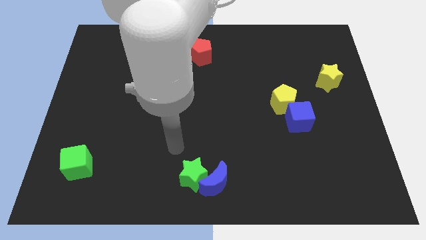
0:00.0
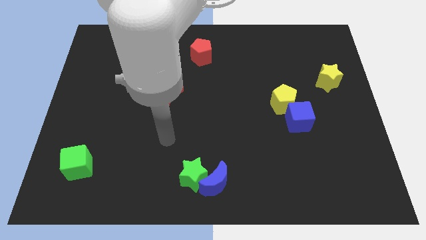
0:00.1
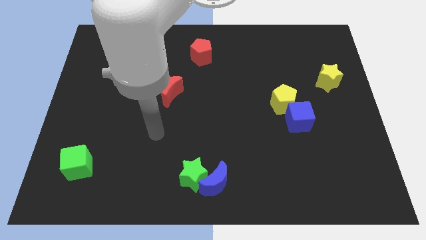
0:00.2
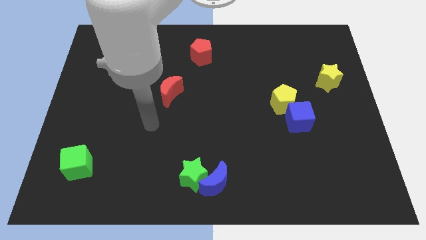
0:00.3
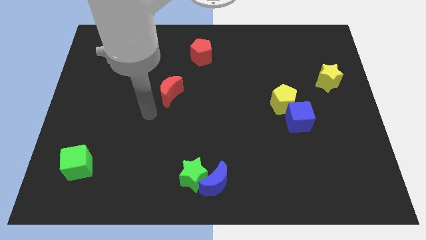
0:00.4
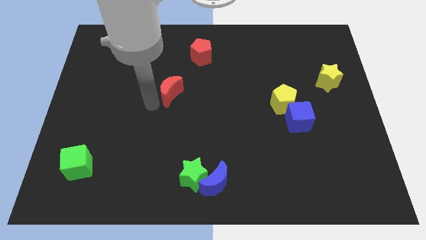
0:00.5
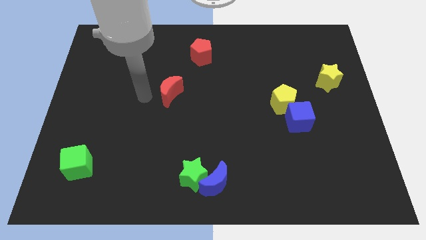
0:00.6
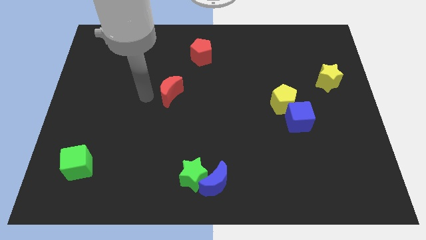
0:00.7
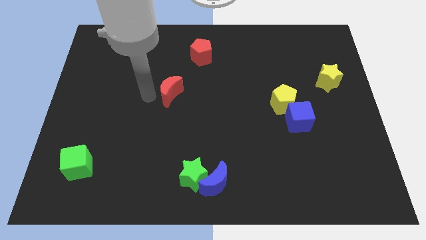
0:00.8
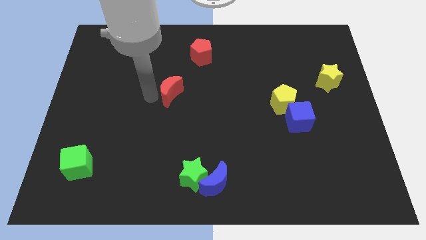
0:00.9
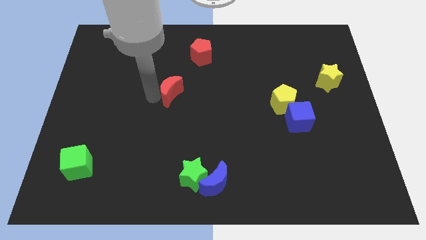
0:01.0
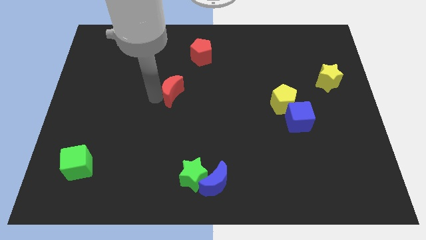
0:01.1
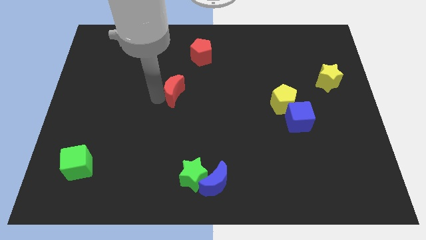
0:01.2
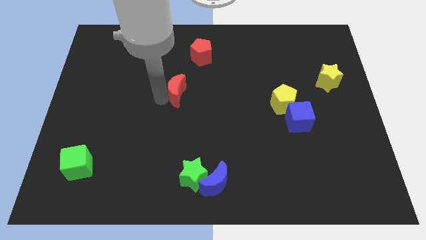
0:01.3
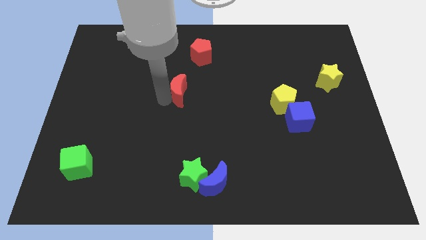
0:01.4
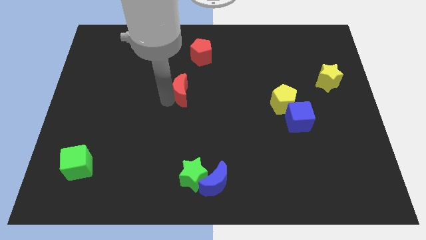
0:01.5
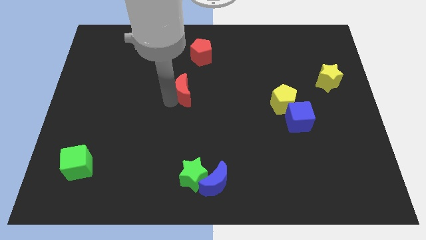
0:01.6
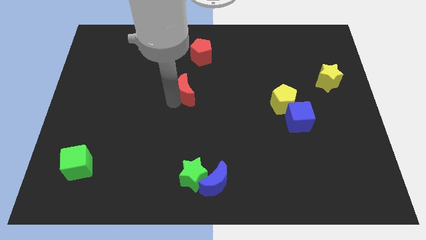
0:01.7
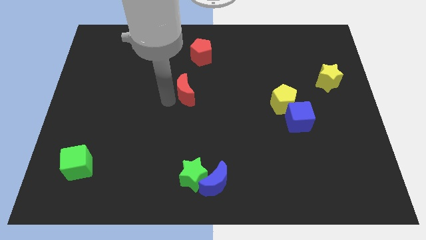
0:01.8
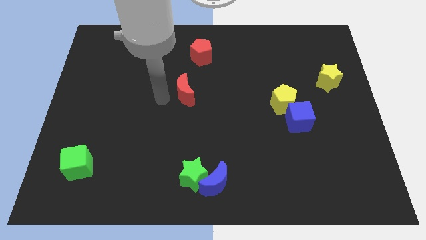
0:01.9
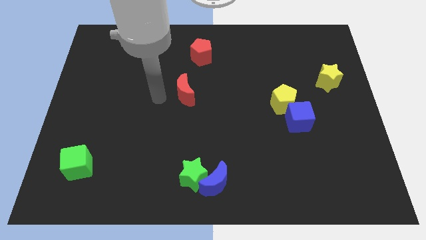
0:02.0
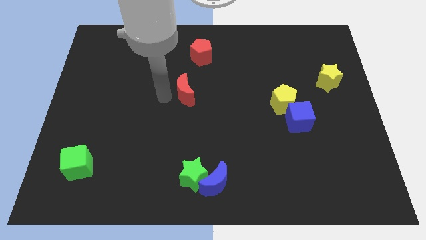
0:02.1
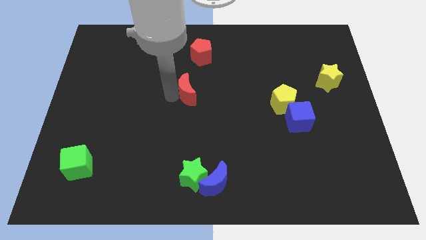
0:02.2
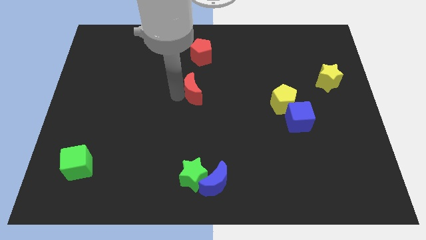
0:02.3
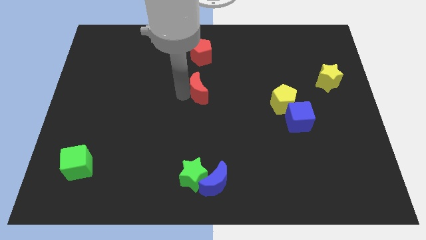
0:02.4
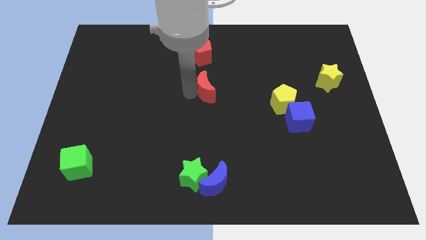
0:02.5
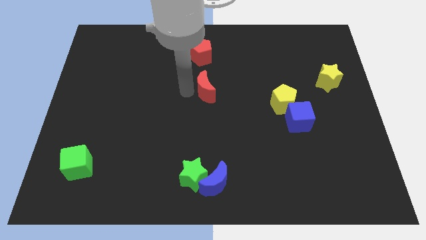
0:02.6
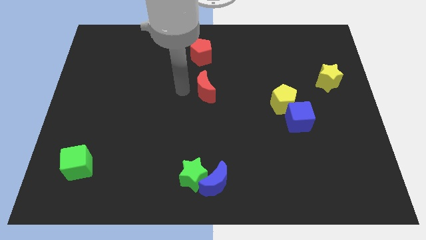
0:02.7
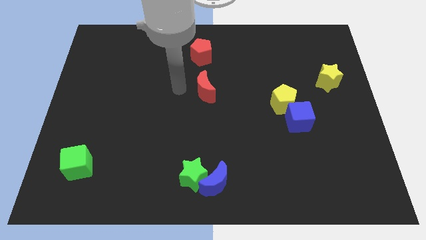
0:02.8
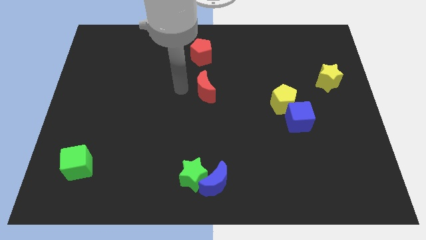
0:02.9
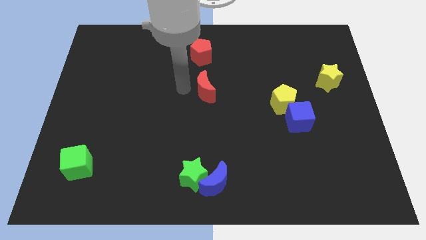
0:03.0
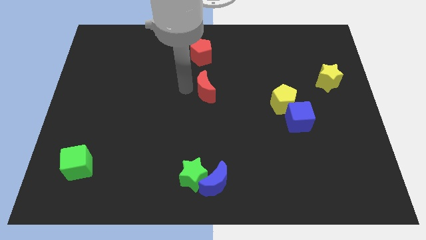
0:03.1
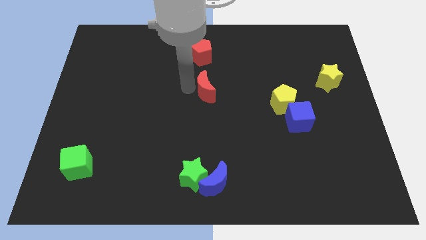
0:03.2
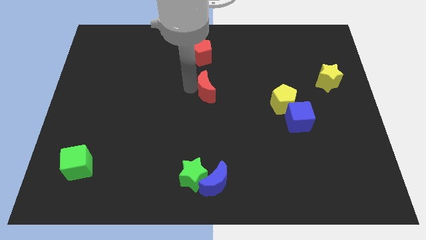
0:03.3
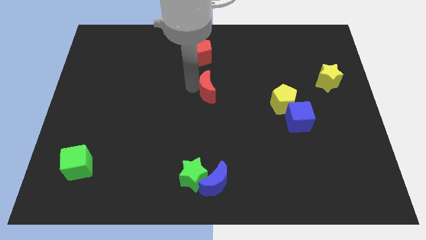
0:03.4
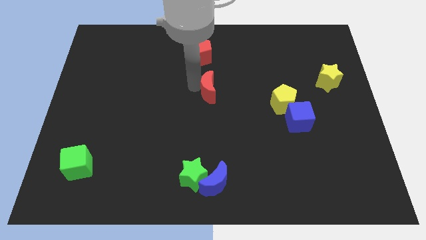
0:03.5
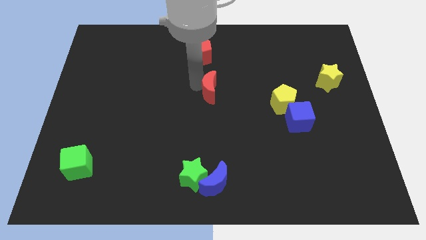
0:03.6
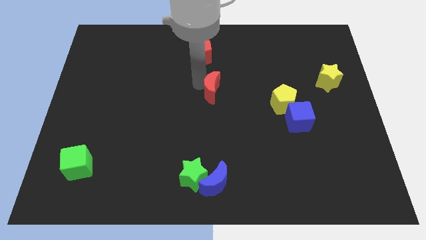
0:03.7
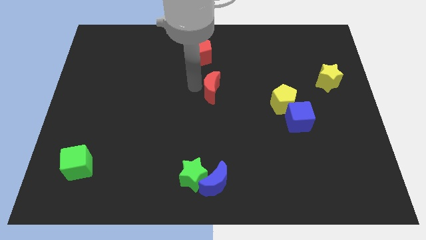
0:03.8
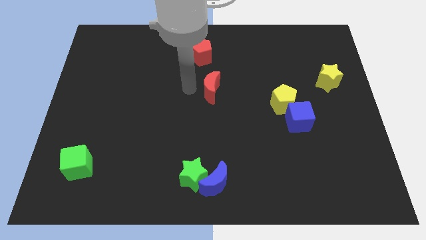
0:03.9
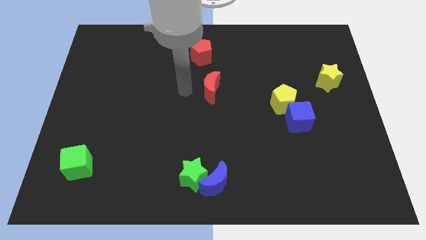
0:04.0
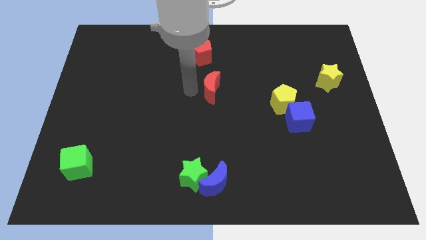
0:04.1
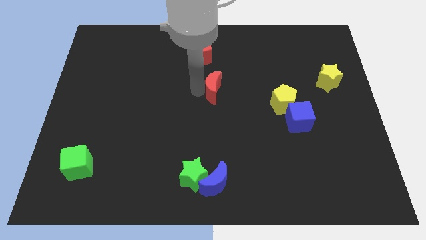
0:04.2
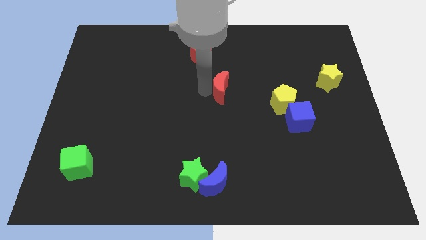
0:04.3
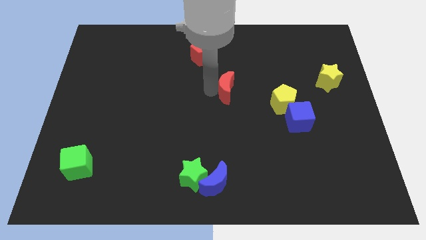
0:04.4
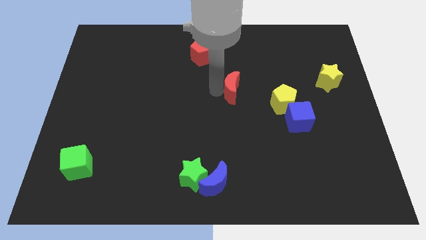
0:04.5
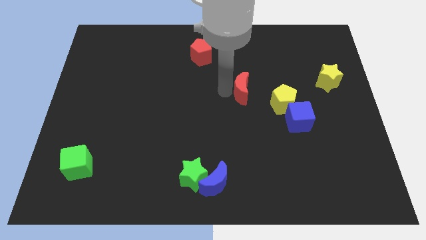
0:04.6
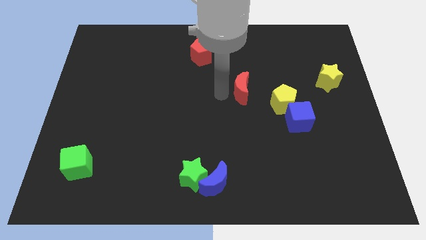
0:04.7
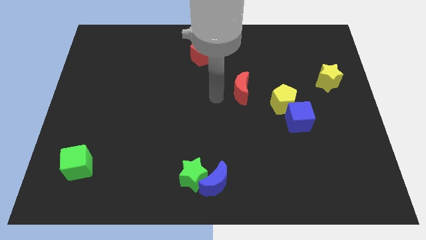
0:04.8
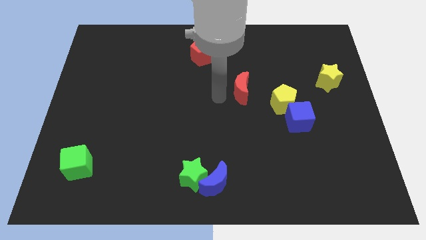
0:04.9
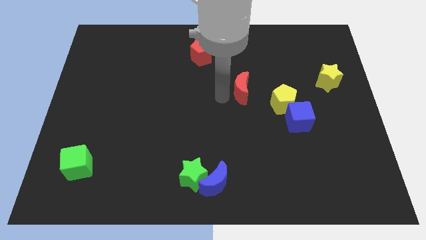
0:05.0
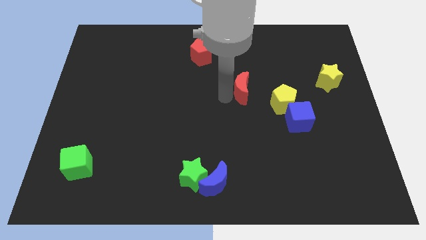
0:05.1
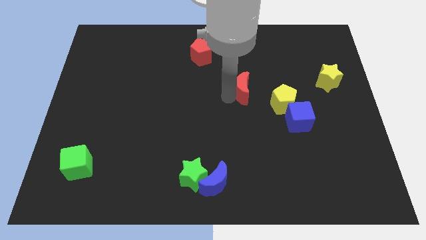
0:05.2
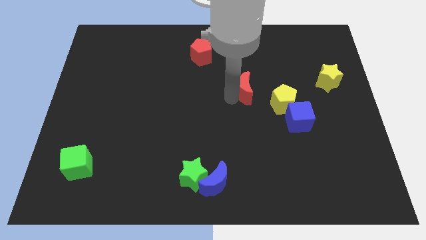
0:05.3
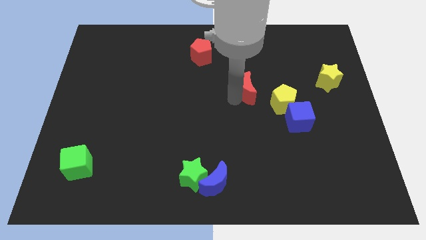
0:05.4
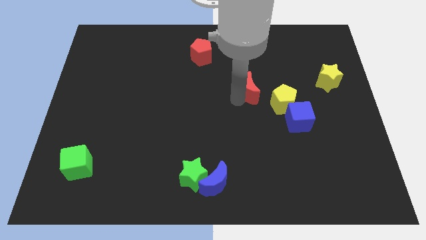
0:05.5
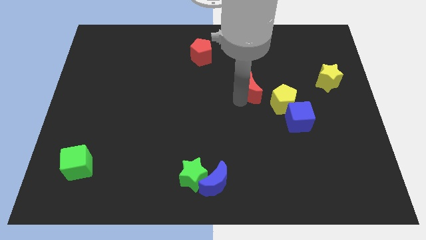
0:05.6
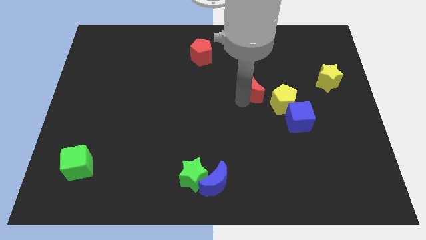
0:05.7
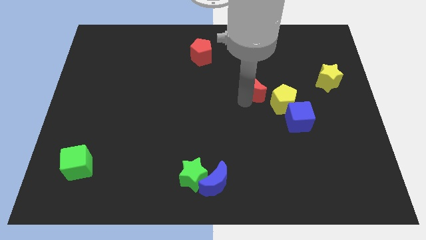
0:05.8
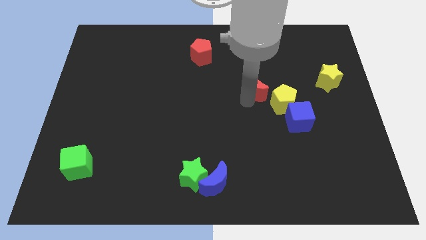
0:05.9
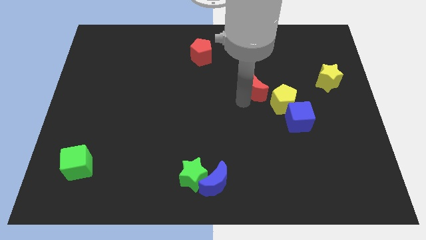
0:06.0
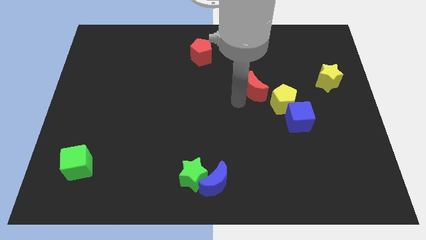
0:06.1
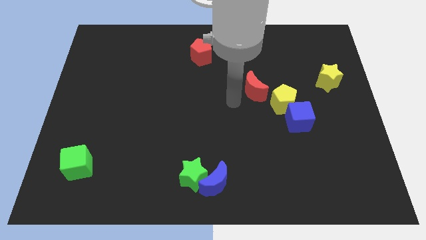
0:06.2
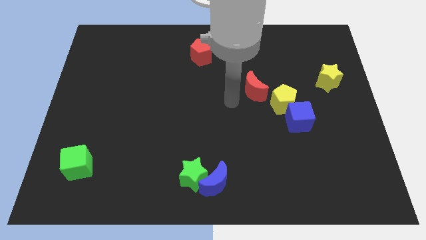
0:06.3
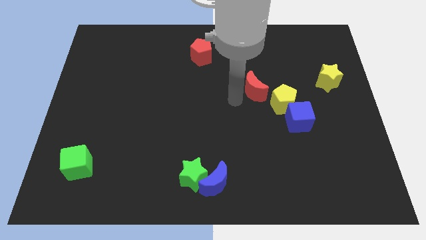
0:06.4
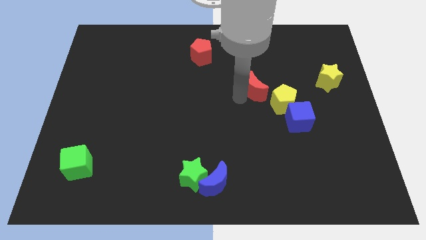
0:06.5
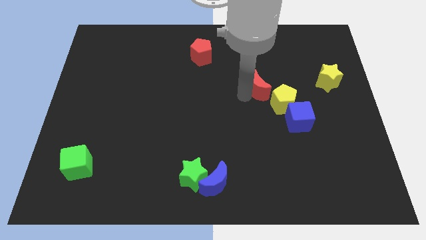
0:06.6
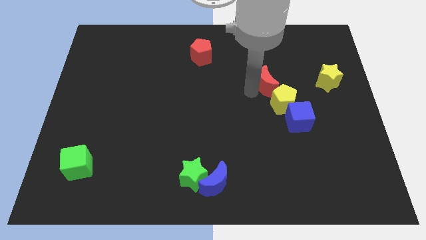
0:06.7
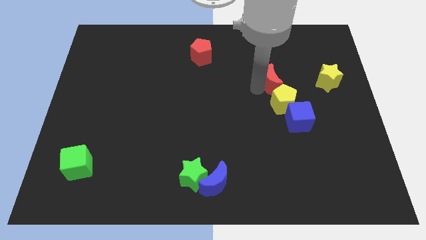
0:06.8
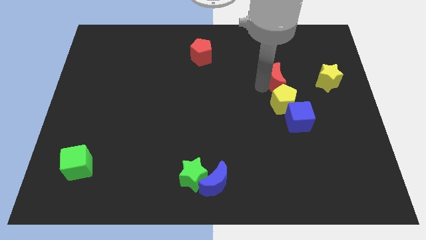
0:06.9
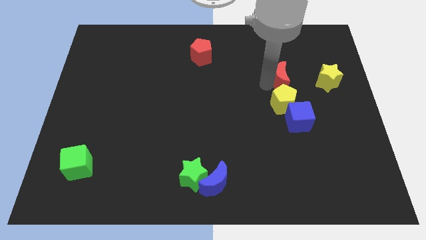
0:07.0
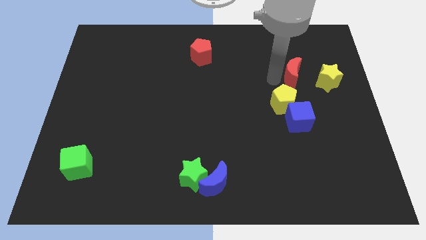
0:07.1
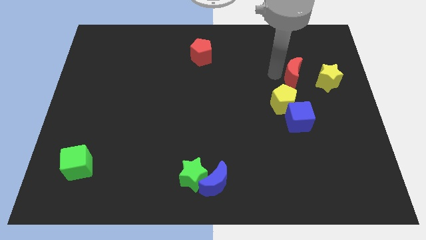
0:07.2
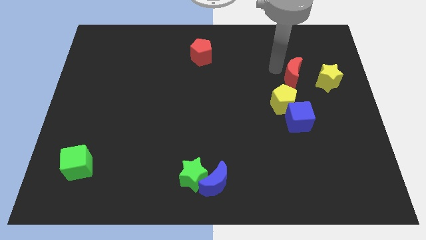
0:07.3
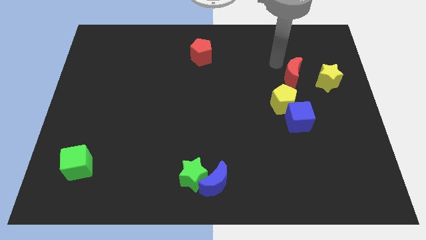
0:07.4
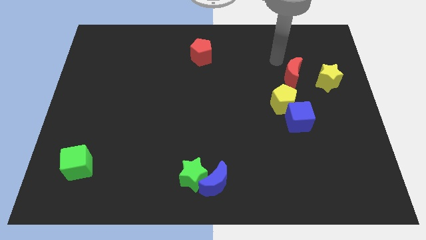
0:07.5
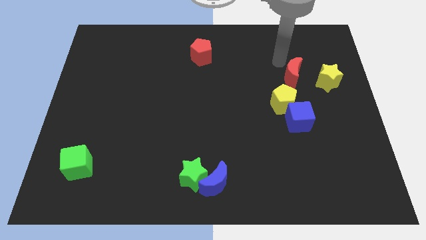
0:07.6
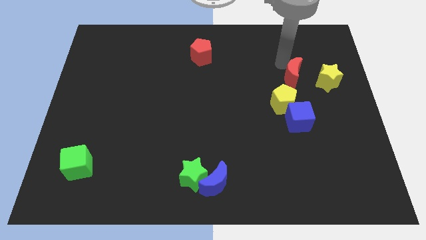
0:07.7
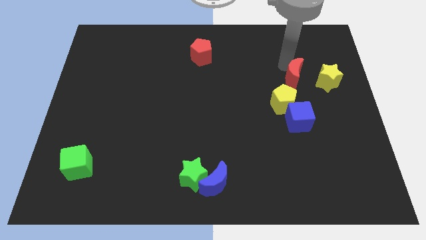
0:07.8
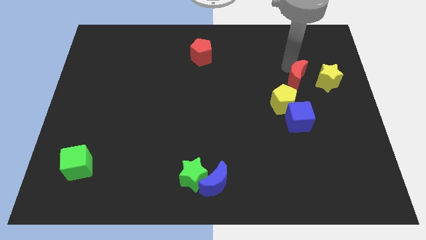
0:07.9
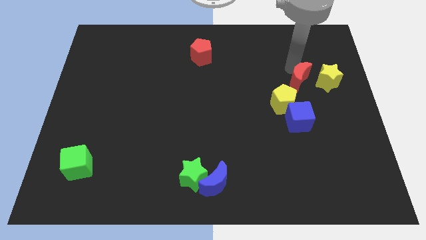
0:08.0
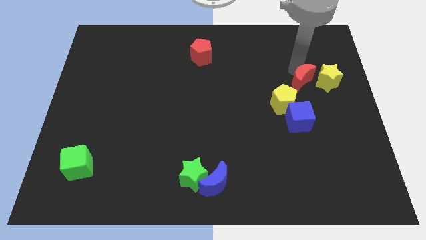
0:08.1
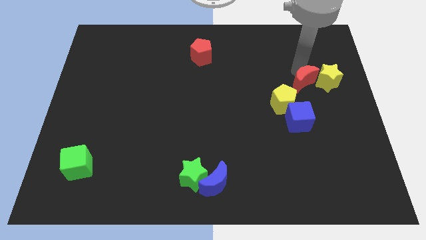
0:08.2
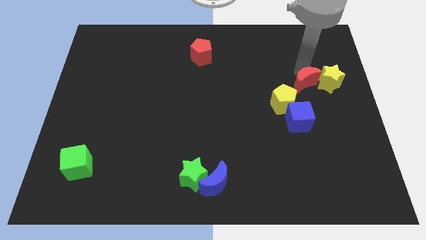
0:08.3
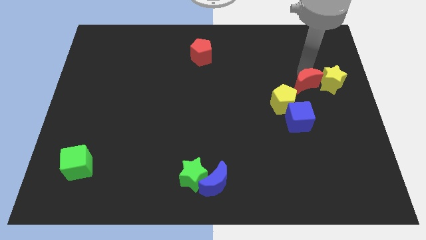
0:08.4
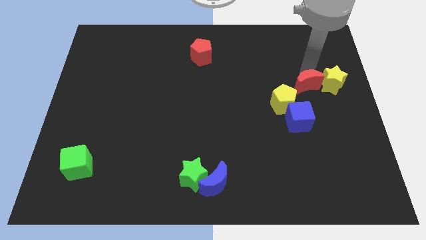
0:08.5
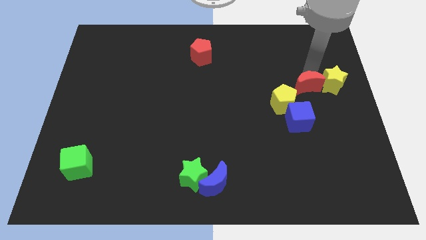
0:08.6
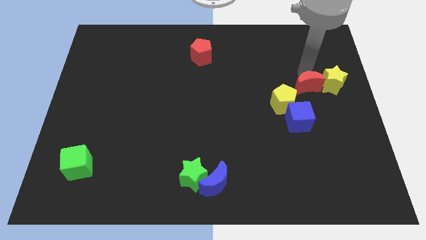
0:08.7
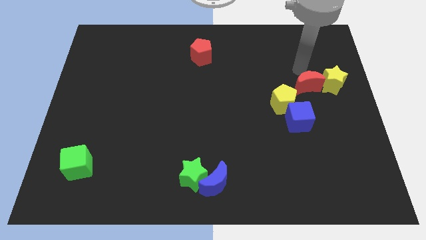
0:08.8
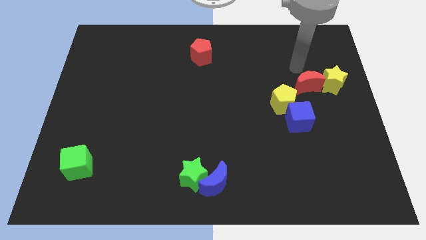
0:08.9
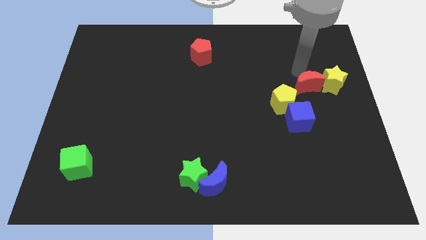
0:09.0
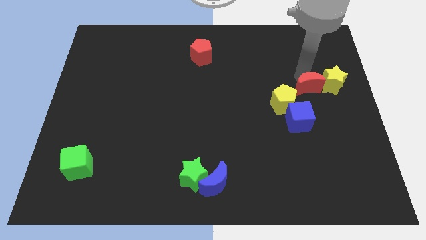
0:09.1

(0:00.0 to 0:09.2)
slide the red moon to the top right side of the blue cube
